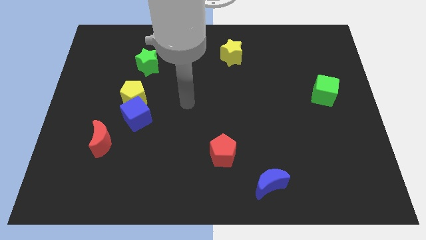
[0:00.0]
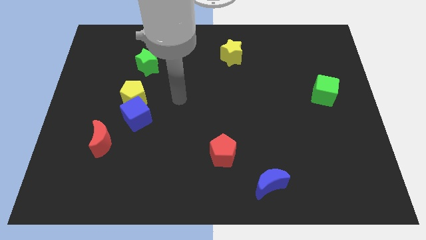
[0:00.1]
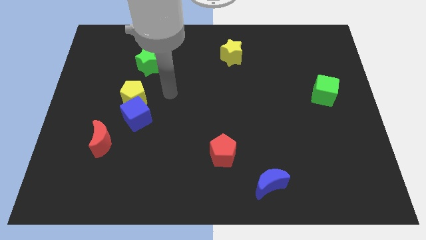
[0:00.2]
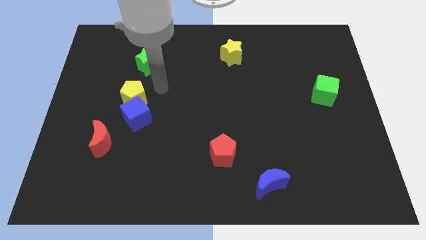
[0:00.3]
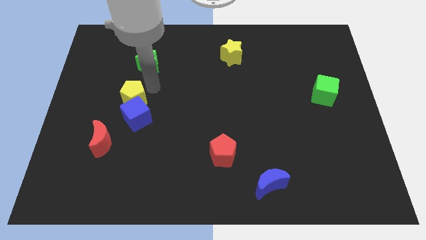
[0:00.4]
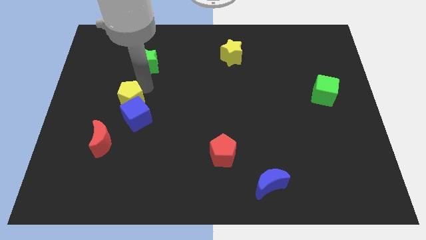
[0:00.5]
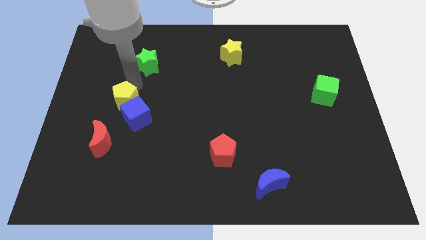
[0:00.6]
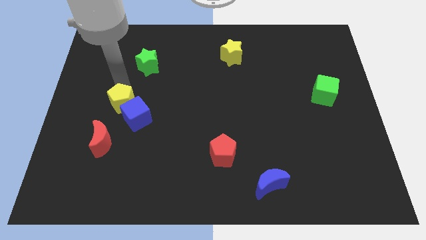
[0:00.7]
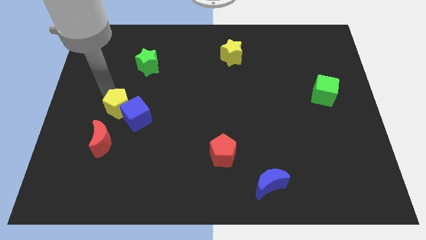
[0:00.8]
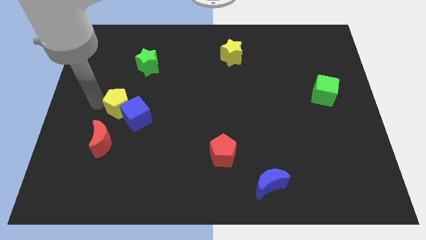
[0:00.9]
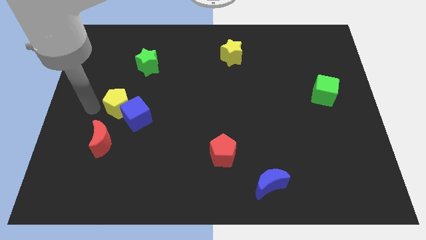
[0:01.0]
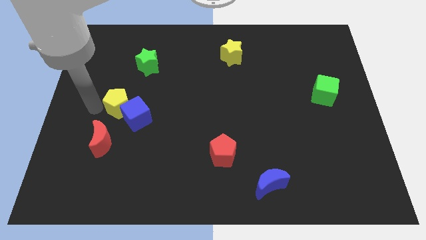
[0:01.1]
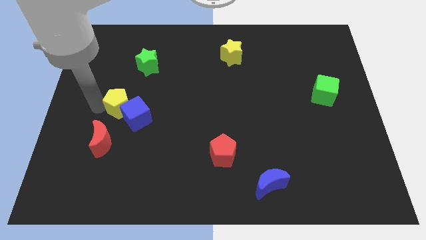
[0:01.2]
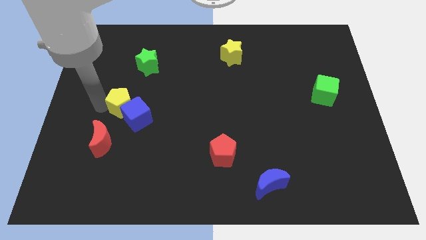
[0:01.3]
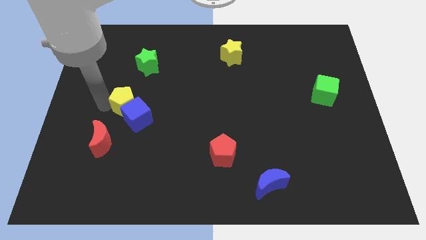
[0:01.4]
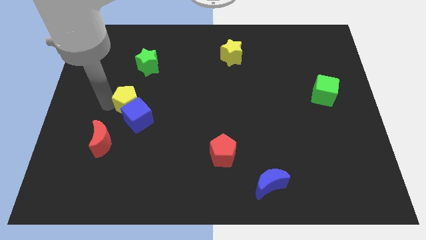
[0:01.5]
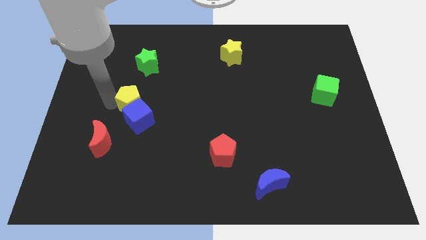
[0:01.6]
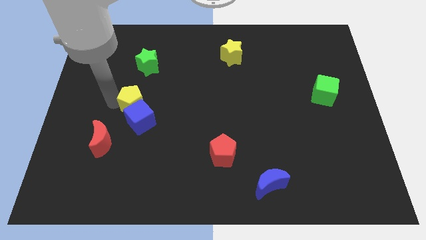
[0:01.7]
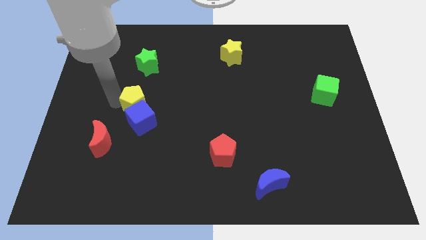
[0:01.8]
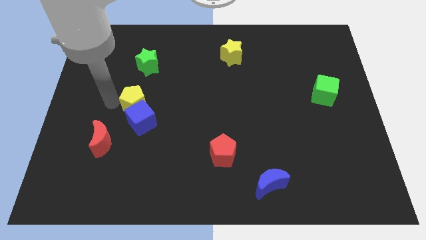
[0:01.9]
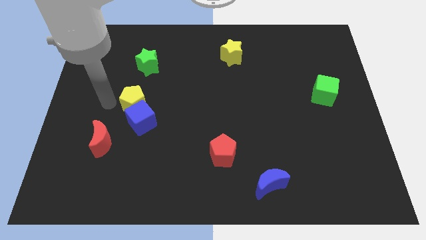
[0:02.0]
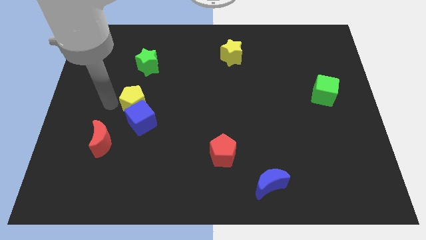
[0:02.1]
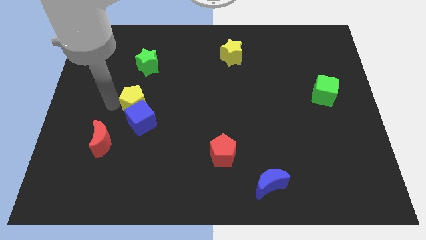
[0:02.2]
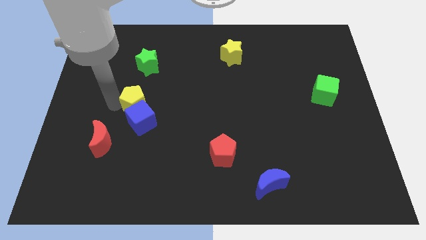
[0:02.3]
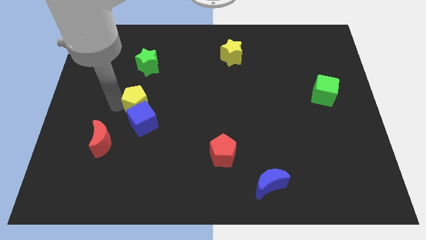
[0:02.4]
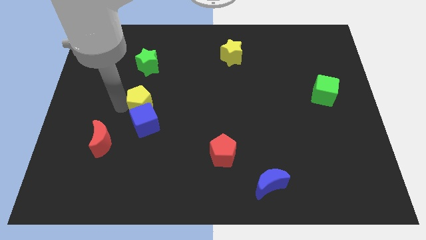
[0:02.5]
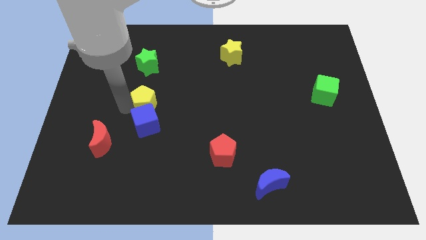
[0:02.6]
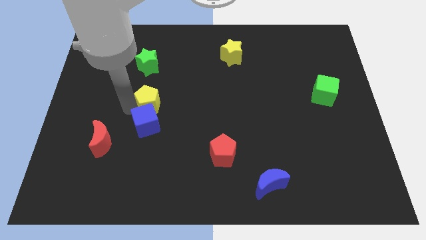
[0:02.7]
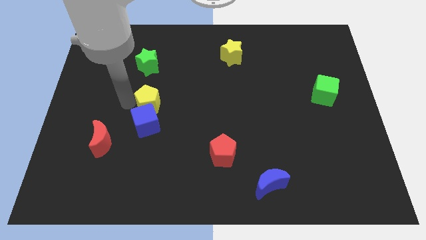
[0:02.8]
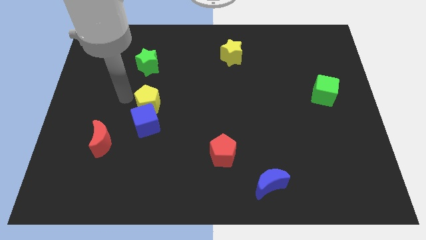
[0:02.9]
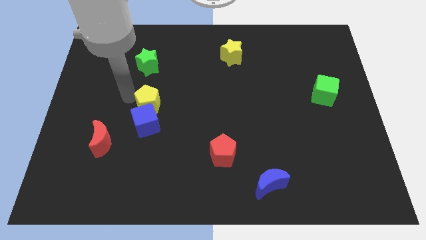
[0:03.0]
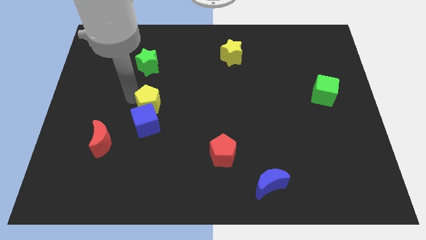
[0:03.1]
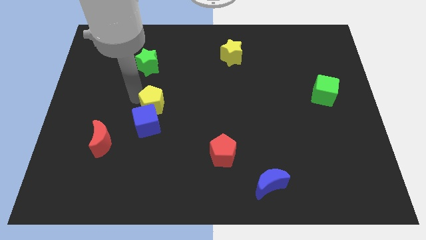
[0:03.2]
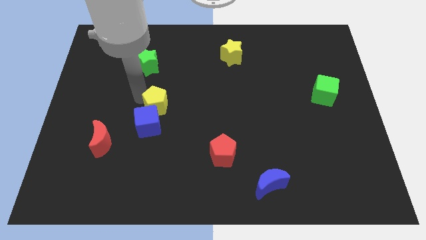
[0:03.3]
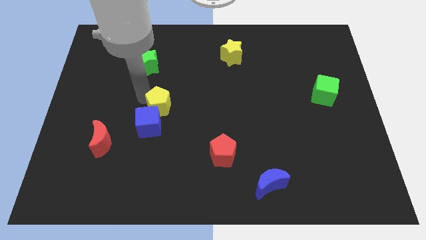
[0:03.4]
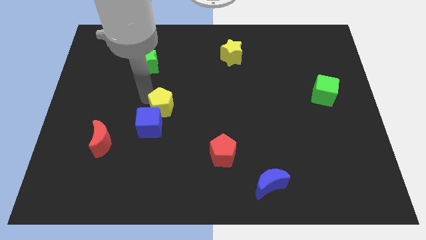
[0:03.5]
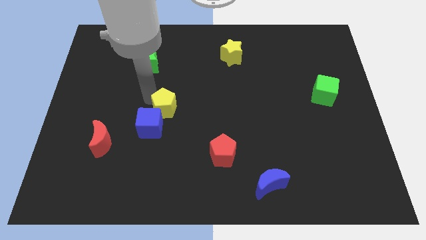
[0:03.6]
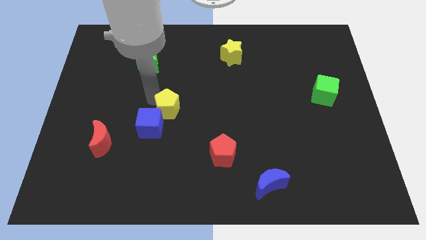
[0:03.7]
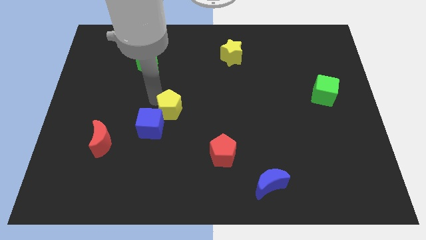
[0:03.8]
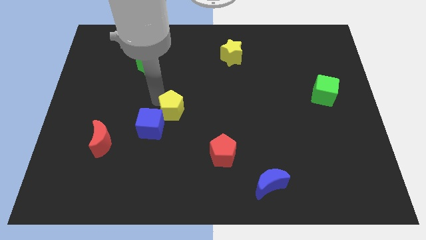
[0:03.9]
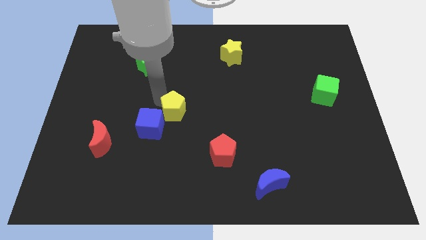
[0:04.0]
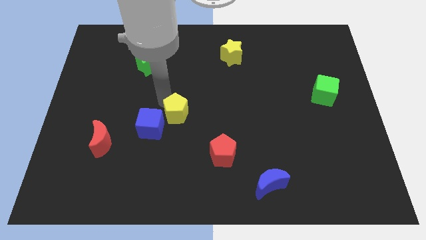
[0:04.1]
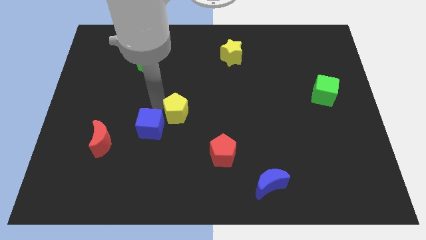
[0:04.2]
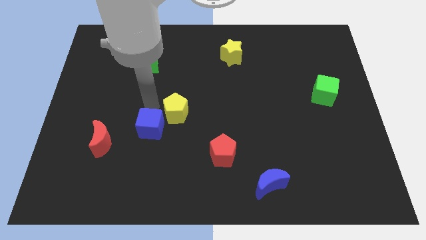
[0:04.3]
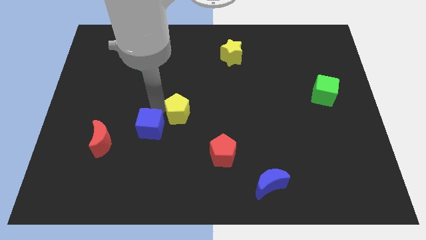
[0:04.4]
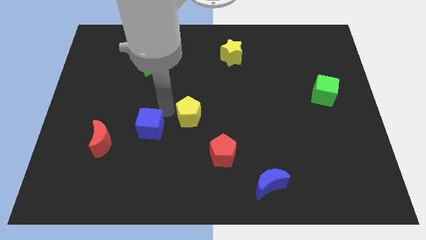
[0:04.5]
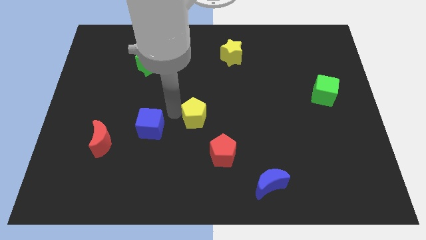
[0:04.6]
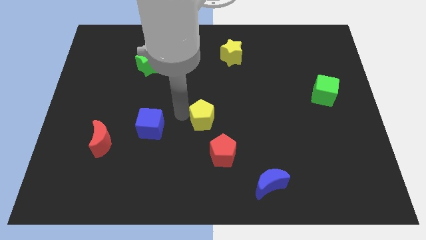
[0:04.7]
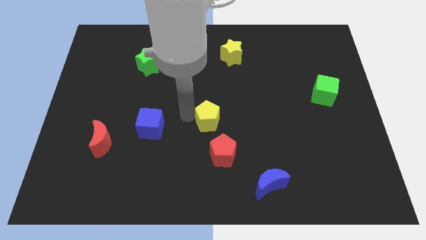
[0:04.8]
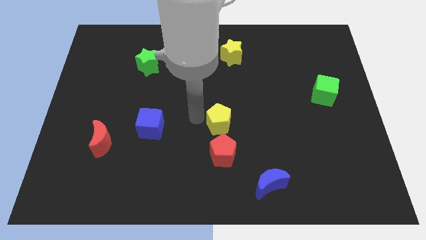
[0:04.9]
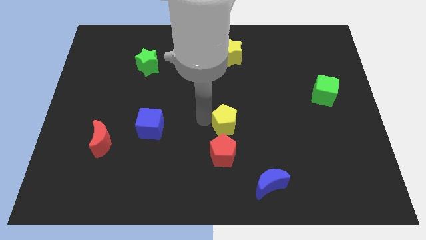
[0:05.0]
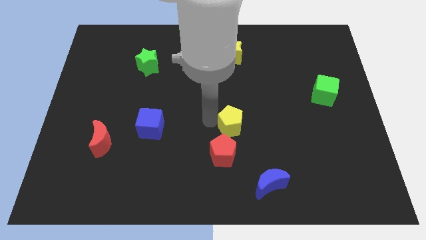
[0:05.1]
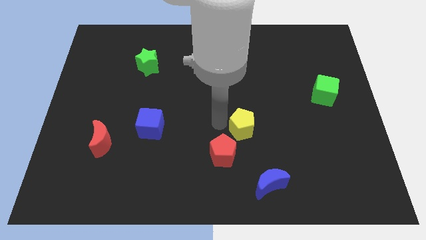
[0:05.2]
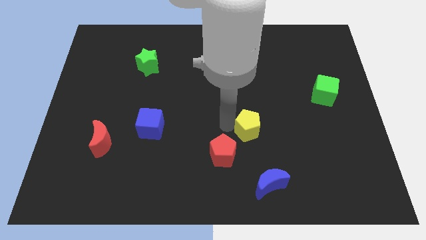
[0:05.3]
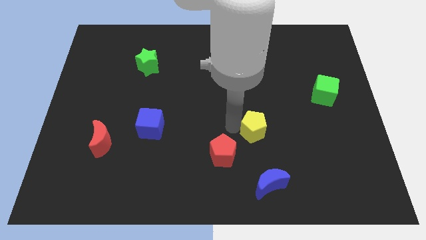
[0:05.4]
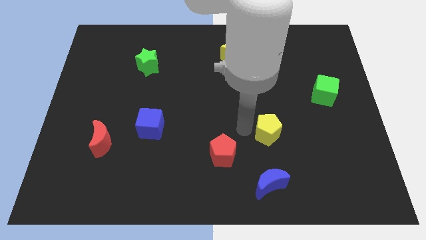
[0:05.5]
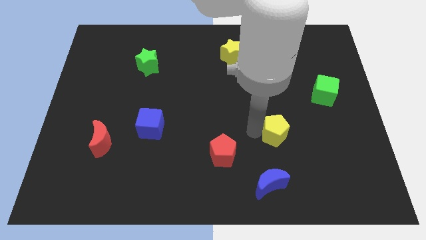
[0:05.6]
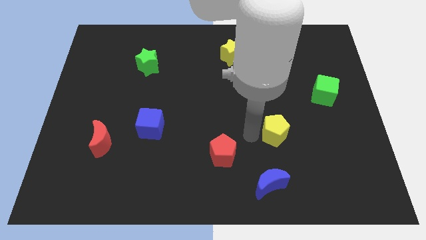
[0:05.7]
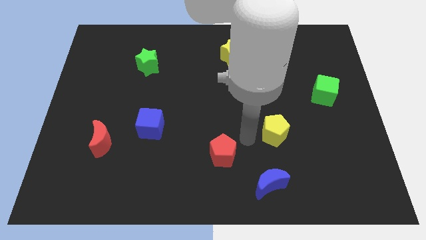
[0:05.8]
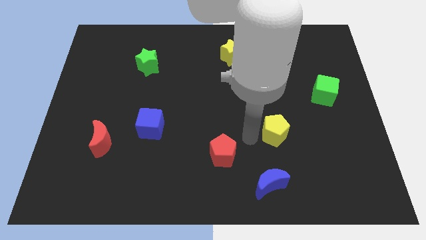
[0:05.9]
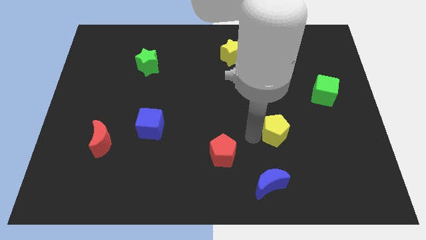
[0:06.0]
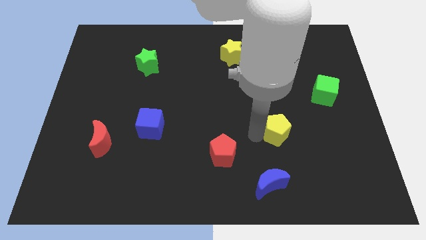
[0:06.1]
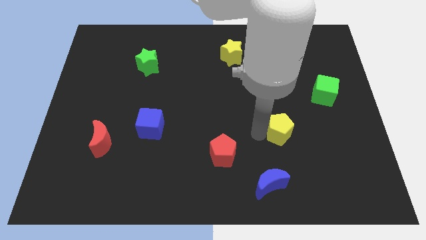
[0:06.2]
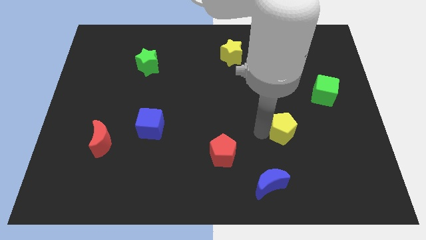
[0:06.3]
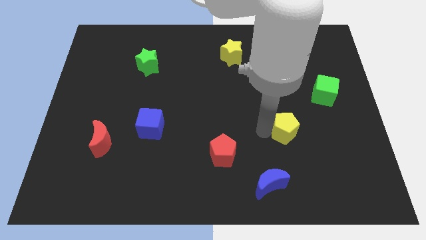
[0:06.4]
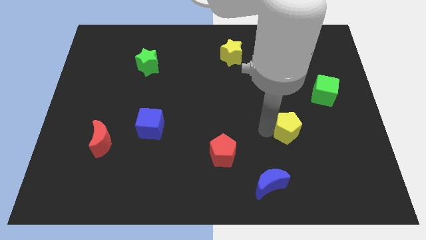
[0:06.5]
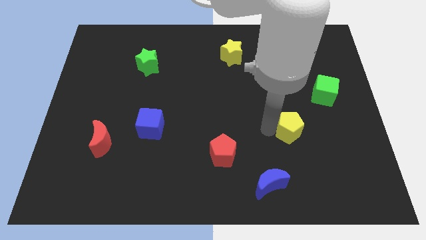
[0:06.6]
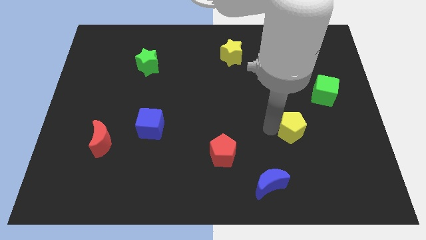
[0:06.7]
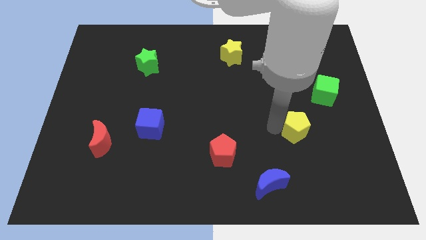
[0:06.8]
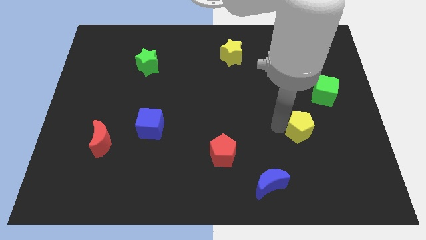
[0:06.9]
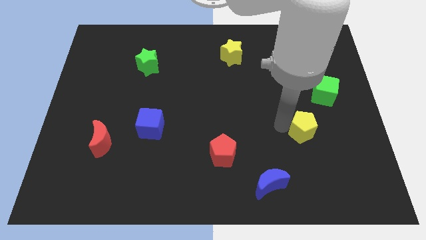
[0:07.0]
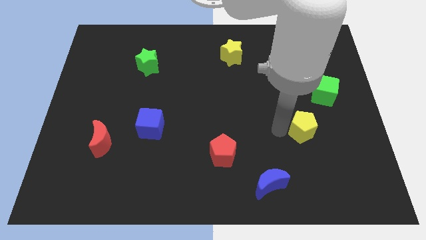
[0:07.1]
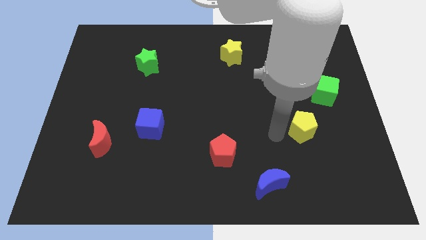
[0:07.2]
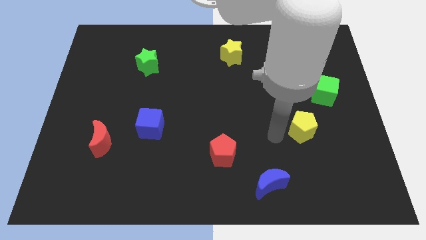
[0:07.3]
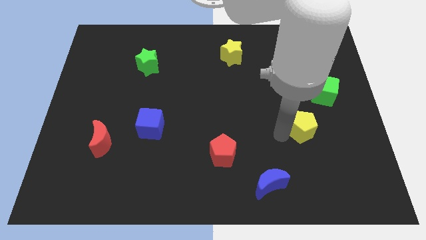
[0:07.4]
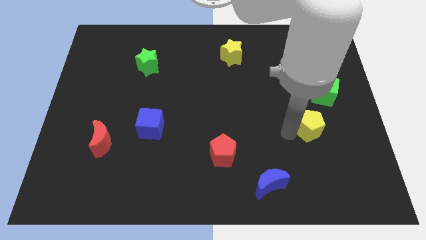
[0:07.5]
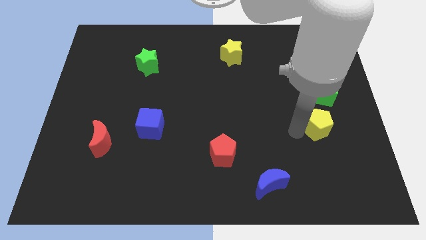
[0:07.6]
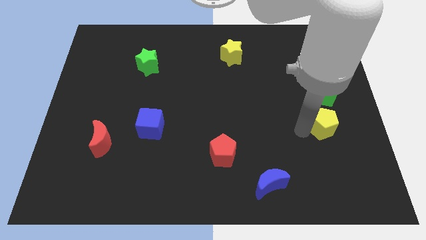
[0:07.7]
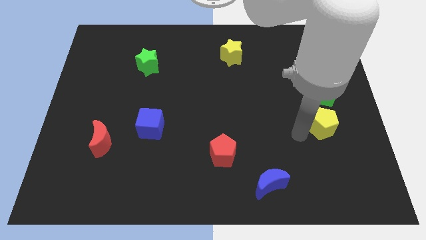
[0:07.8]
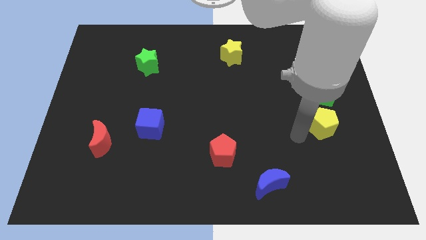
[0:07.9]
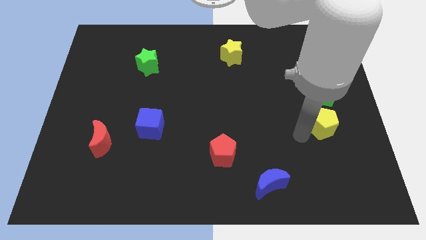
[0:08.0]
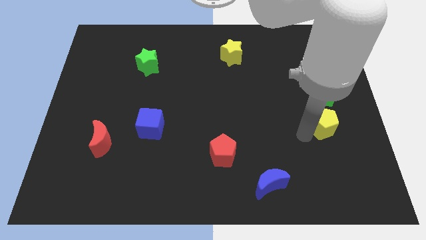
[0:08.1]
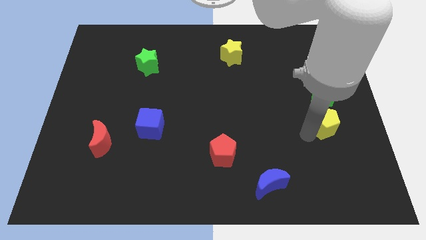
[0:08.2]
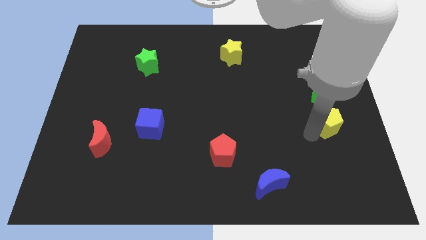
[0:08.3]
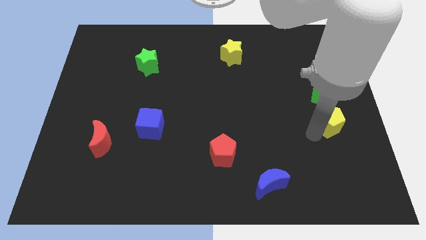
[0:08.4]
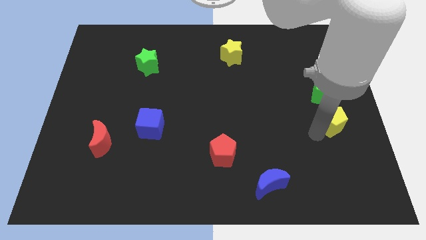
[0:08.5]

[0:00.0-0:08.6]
put the yellow pentagon to the right side of the board
